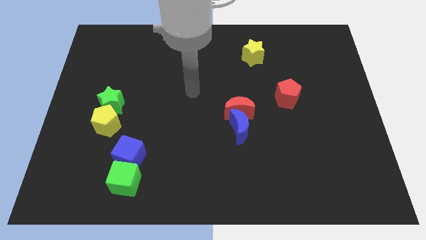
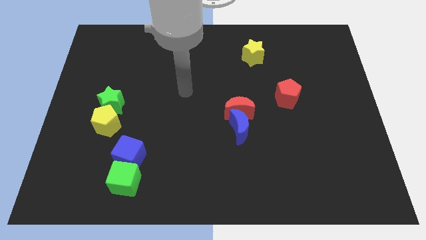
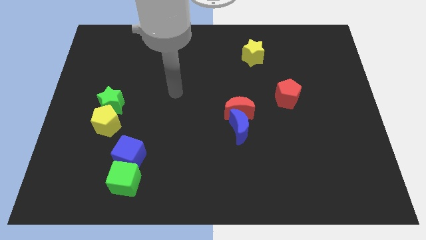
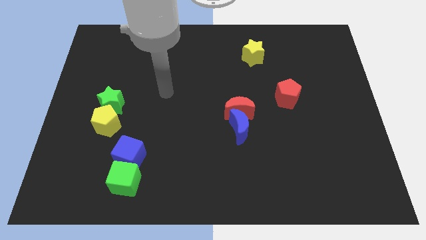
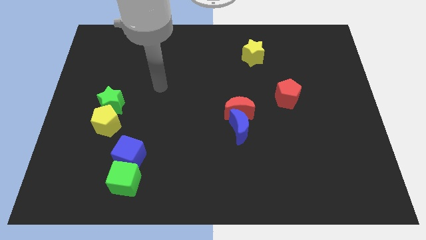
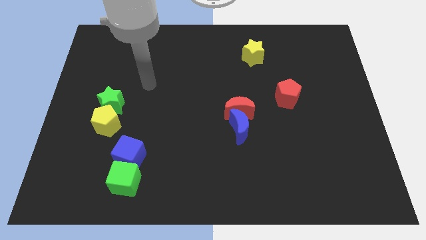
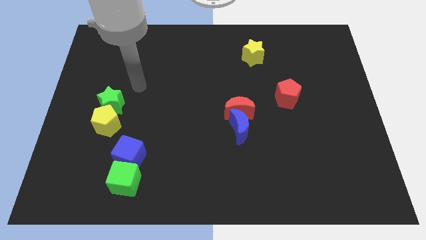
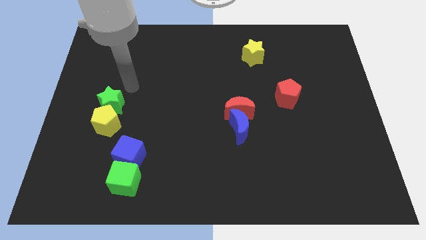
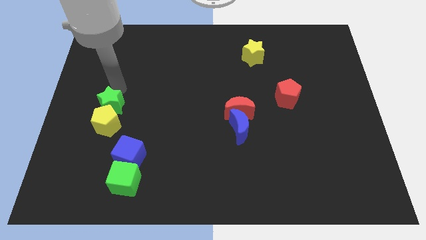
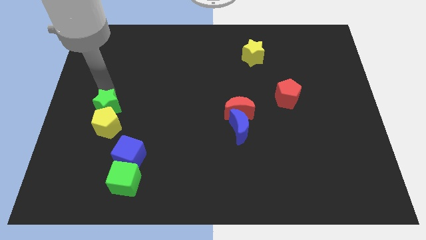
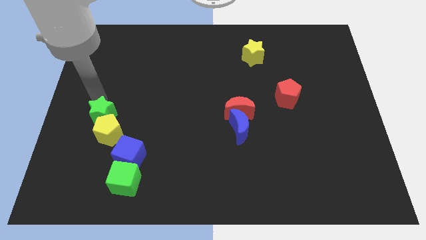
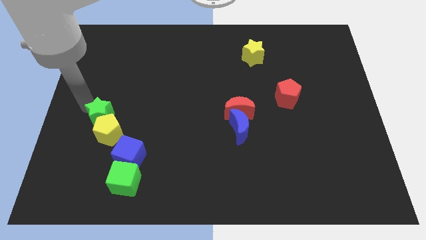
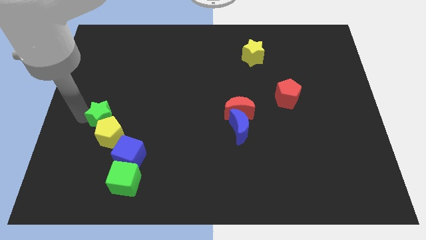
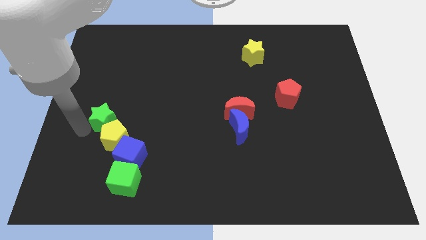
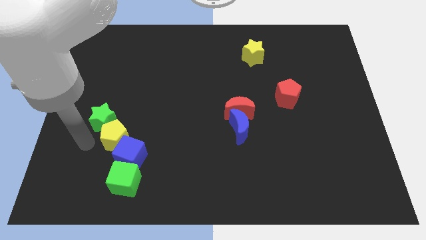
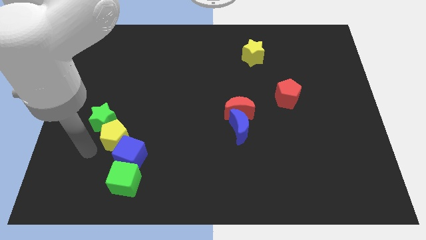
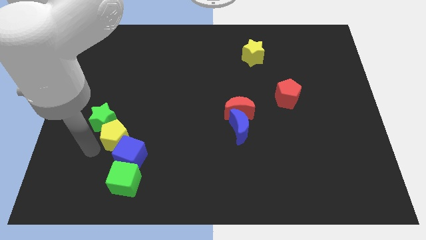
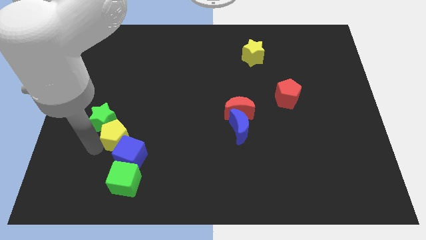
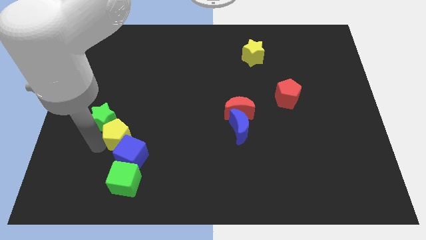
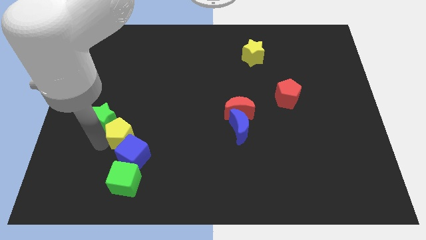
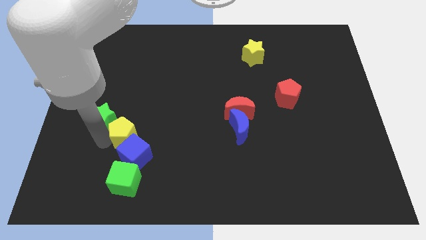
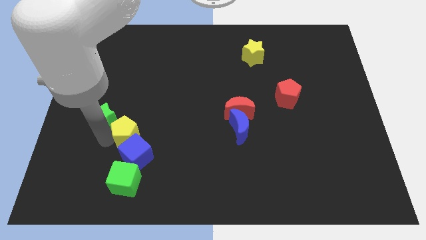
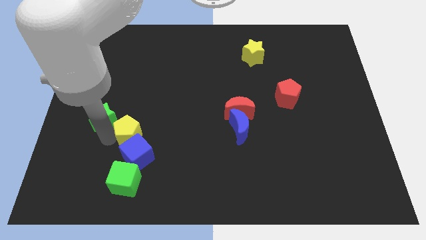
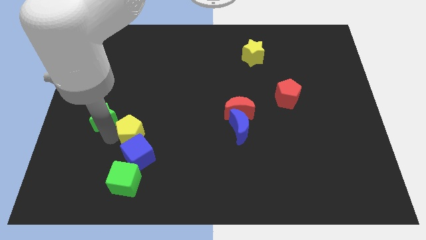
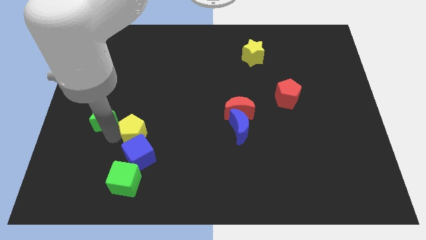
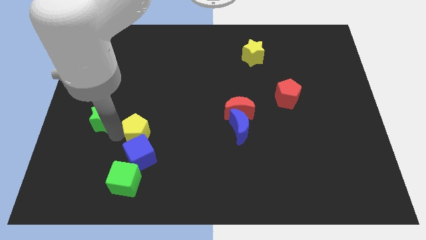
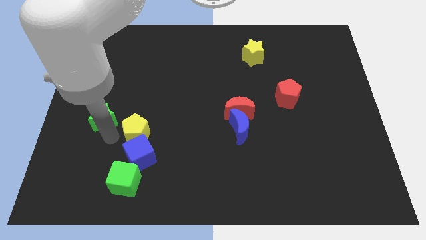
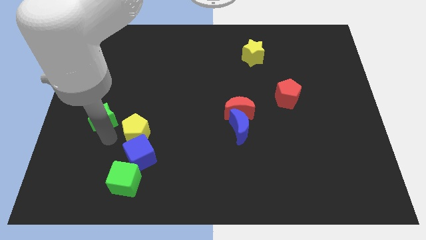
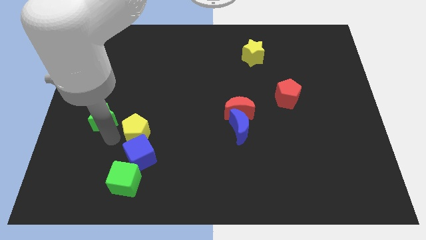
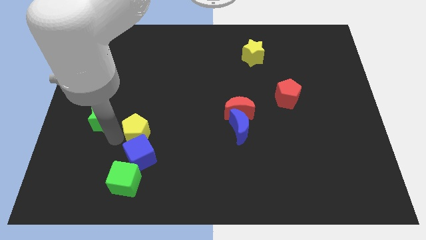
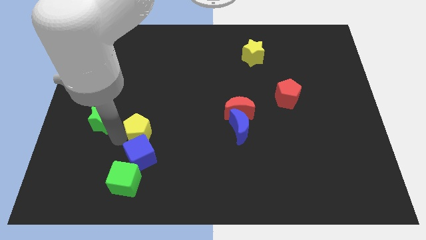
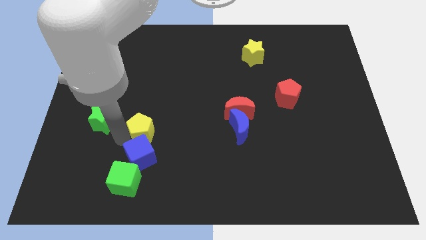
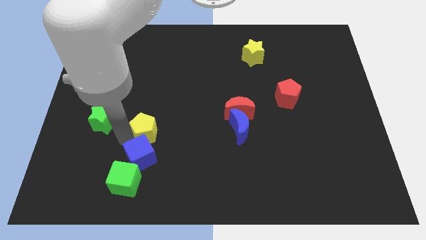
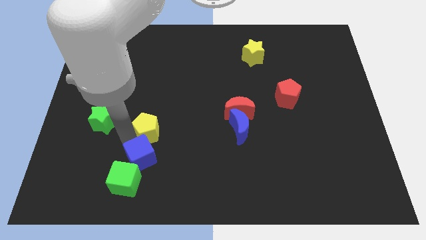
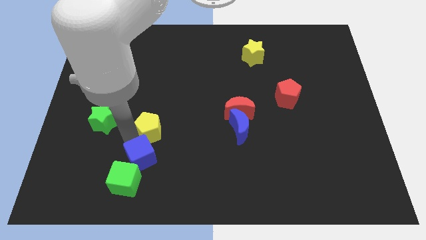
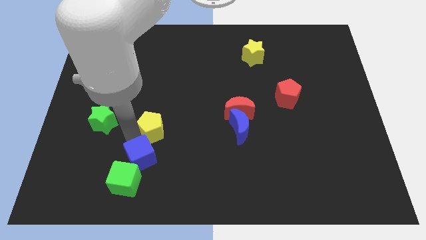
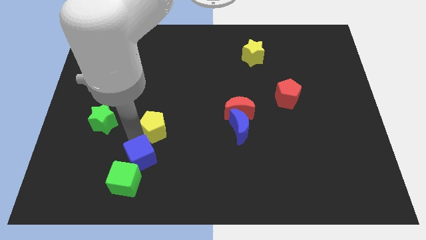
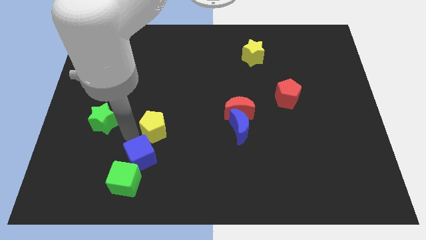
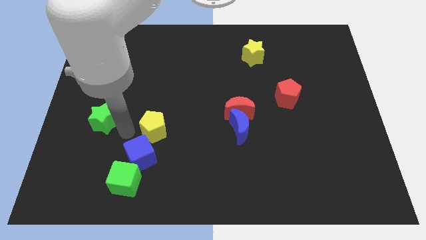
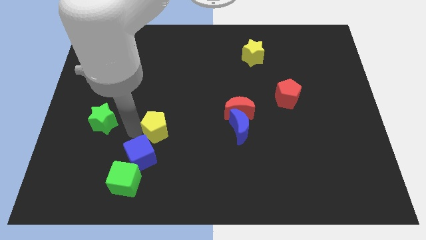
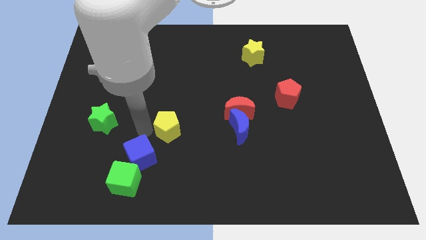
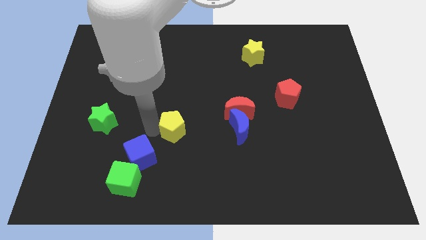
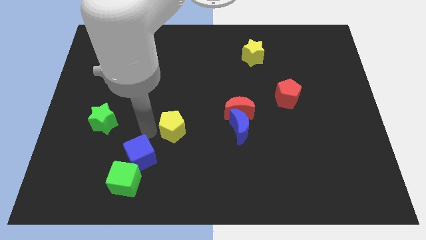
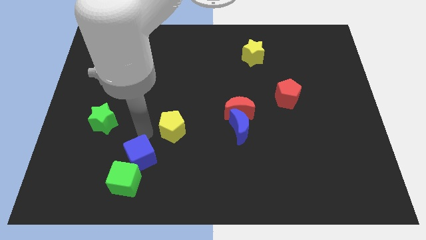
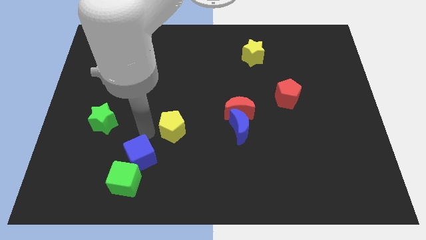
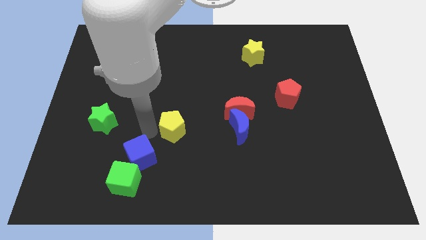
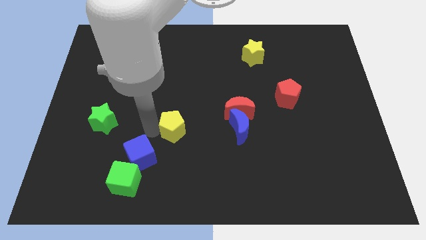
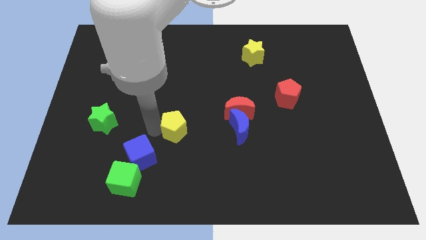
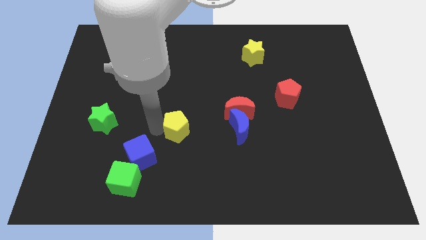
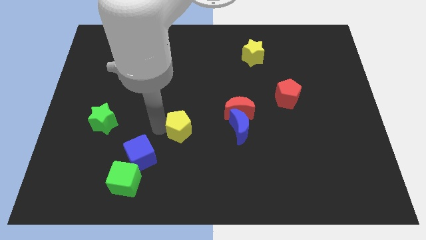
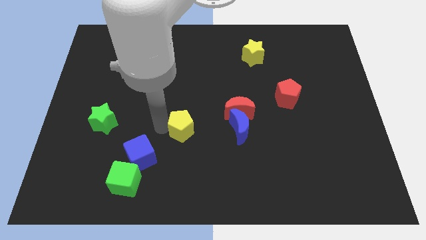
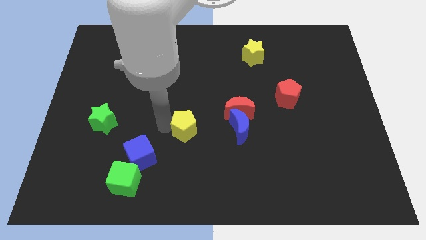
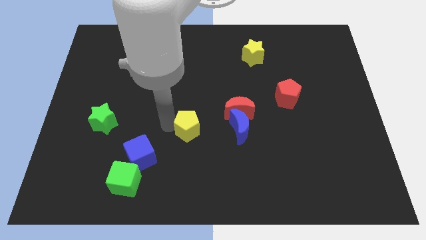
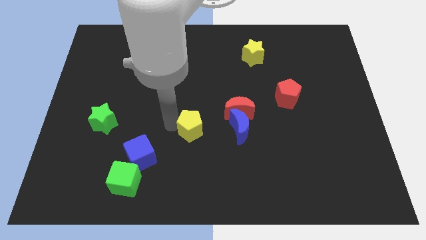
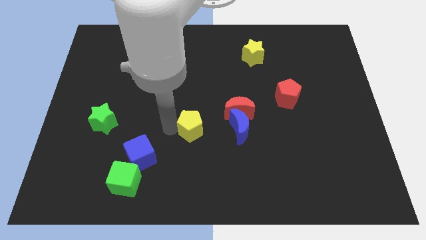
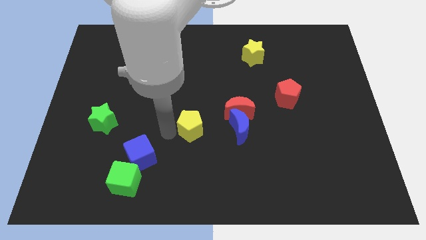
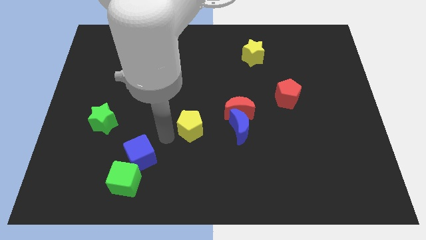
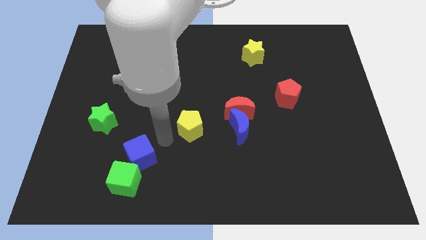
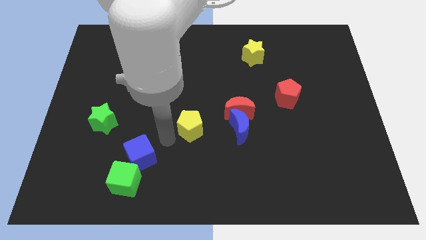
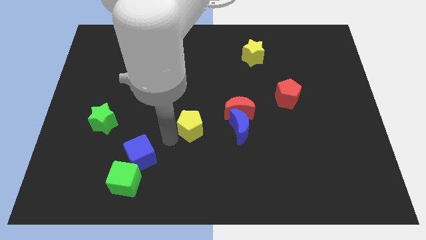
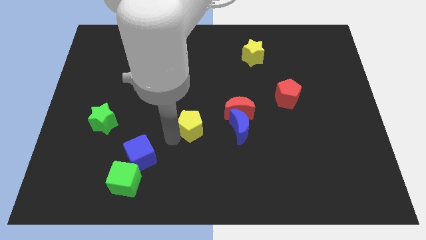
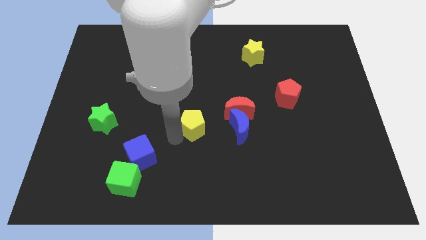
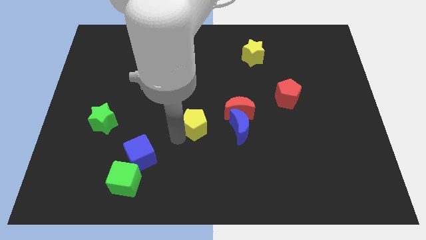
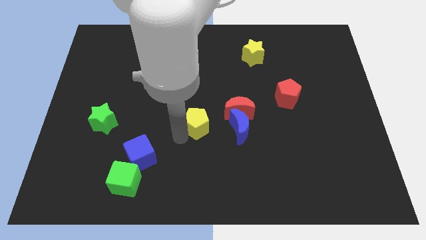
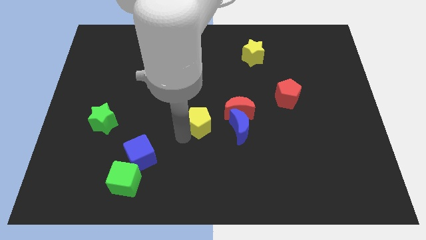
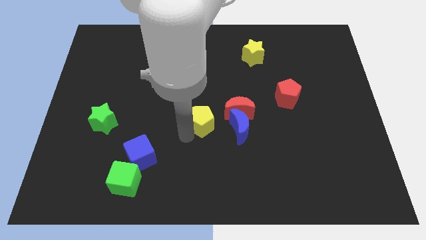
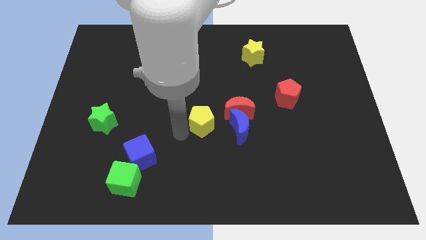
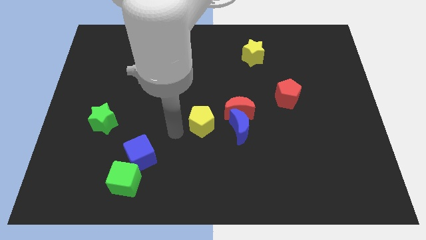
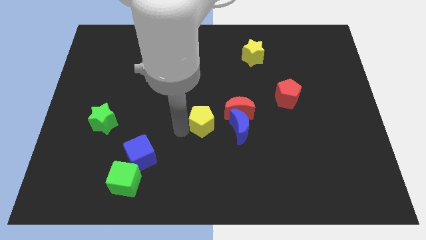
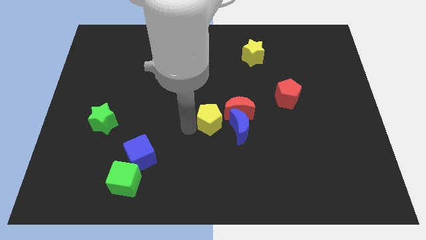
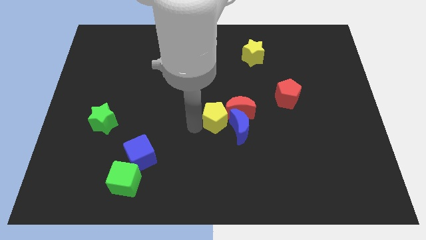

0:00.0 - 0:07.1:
slide the yellow pentagon towards the red moon

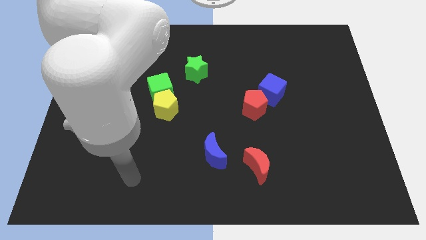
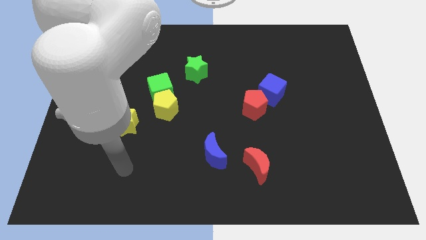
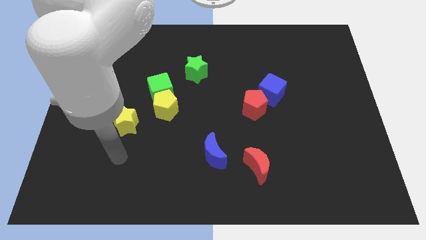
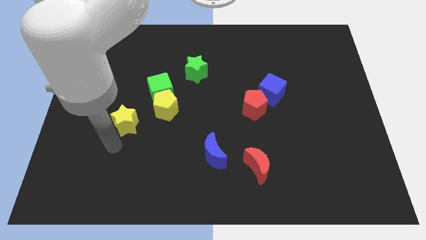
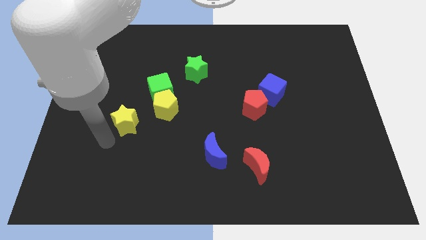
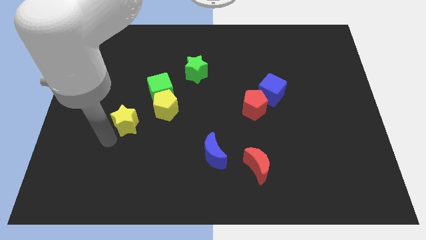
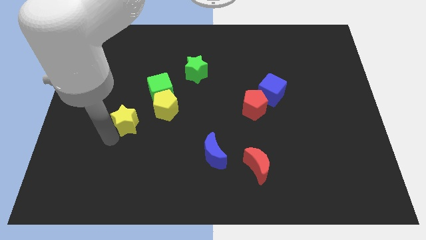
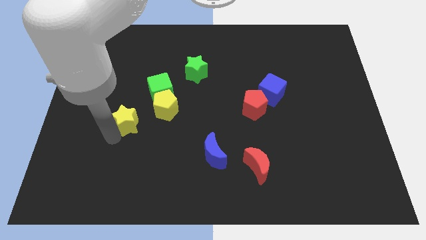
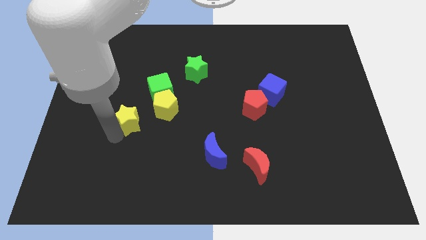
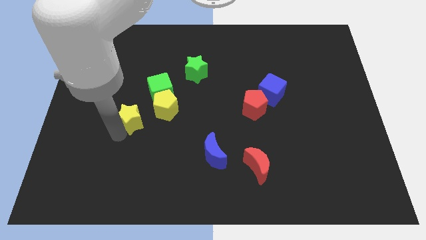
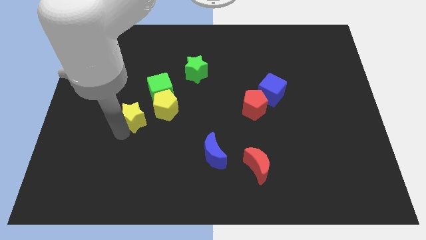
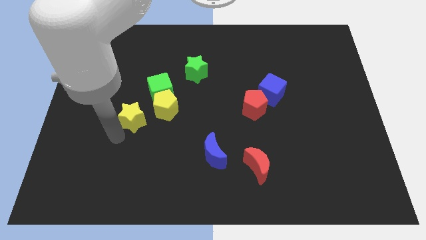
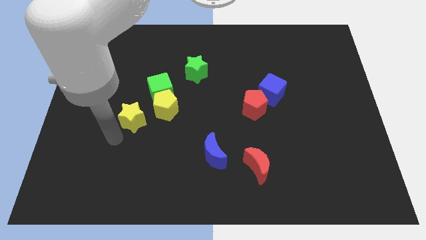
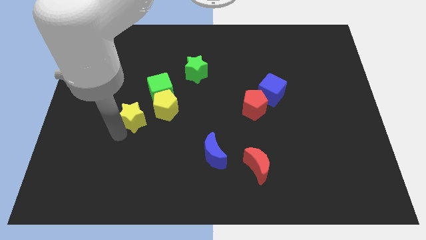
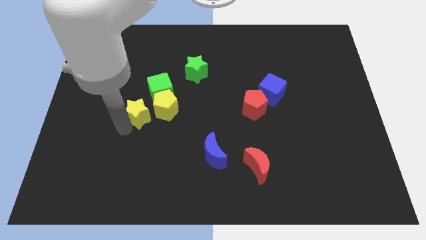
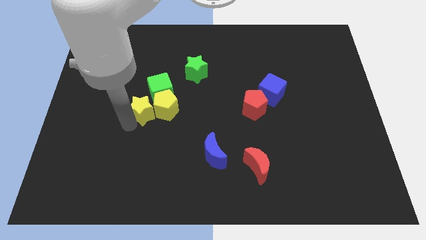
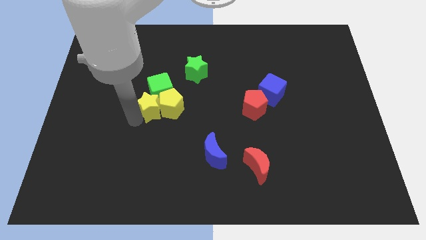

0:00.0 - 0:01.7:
push the yellow star to the green cube
